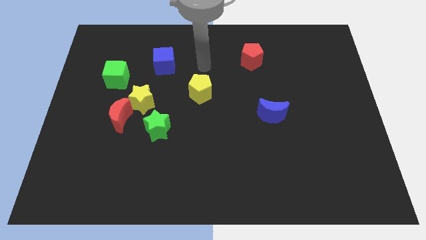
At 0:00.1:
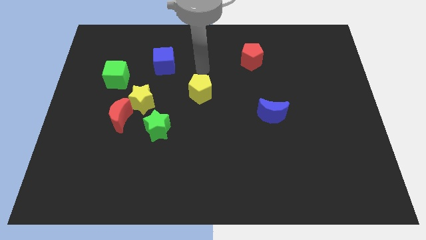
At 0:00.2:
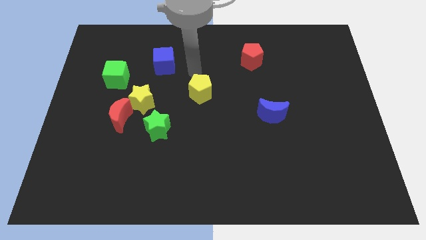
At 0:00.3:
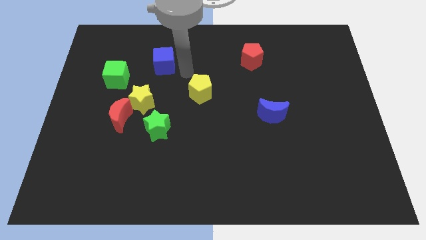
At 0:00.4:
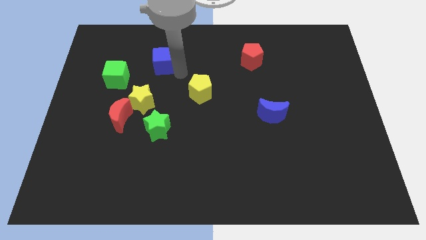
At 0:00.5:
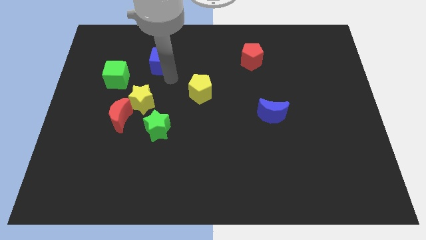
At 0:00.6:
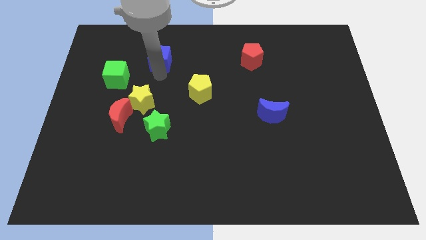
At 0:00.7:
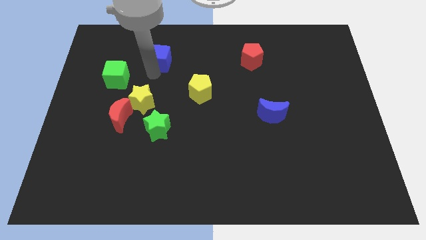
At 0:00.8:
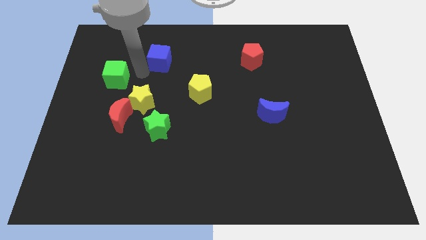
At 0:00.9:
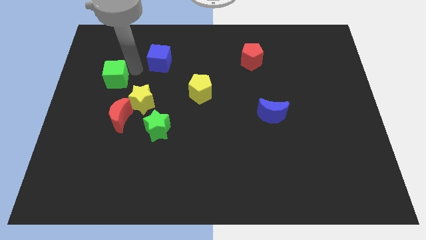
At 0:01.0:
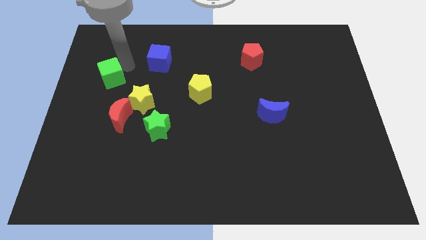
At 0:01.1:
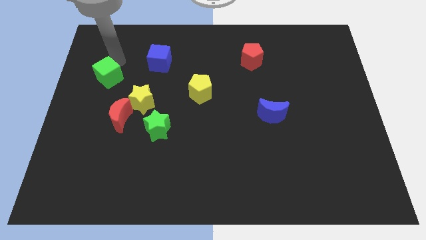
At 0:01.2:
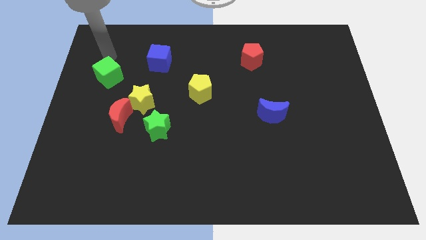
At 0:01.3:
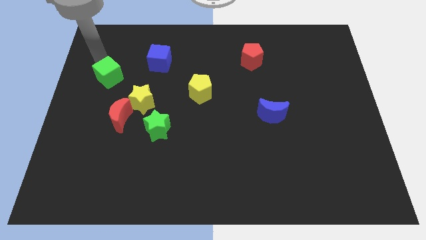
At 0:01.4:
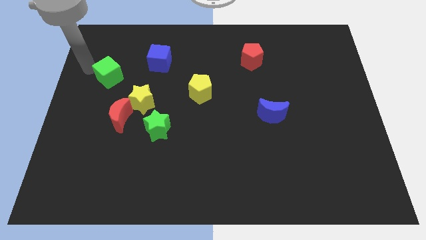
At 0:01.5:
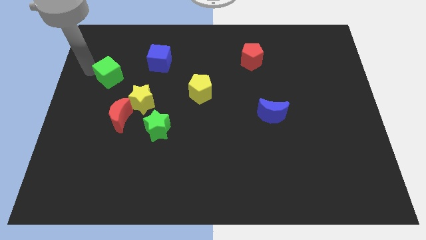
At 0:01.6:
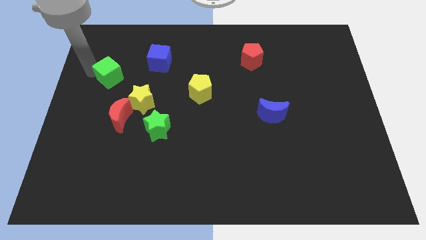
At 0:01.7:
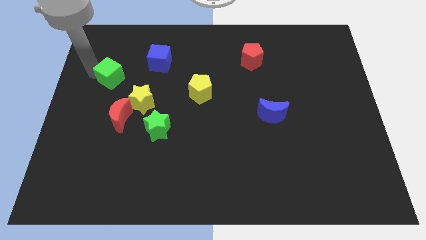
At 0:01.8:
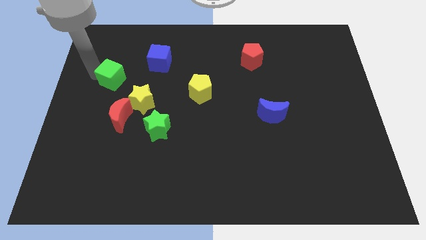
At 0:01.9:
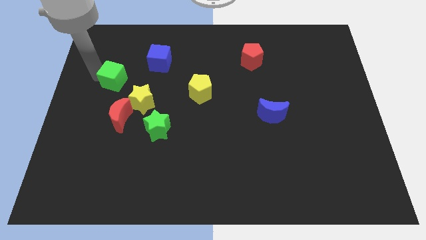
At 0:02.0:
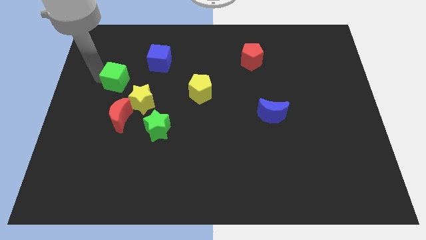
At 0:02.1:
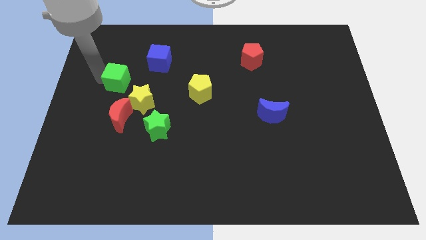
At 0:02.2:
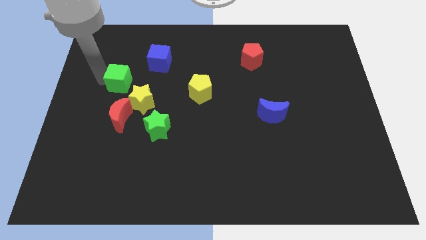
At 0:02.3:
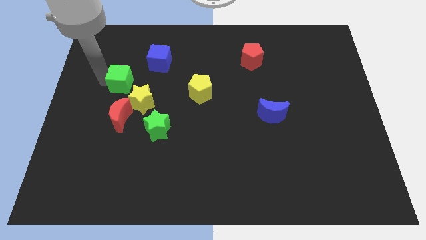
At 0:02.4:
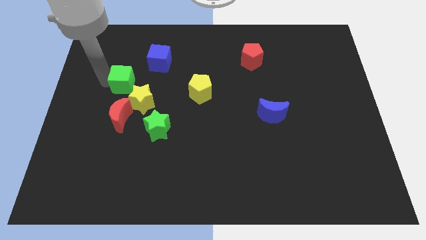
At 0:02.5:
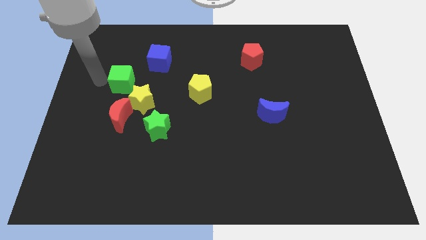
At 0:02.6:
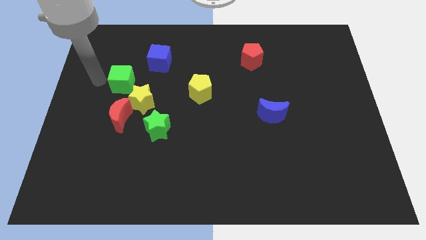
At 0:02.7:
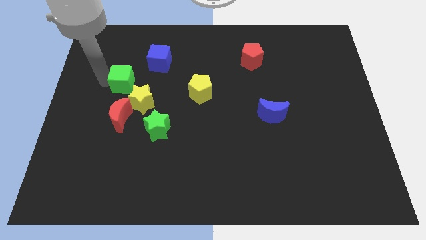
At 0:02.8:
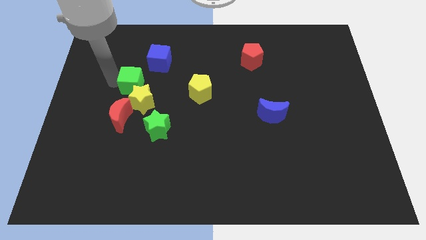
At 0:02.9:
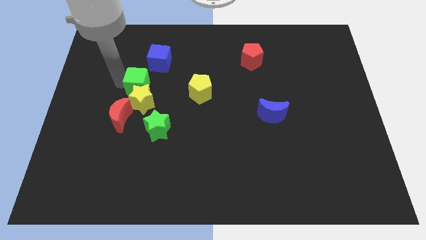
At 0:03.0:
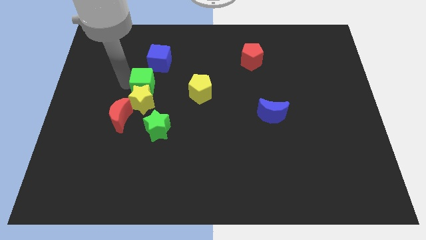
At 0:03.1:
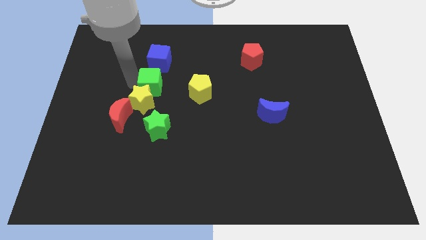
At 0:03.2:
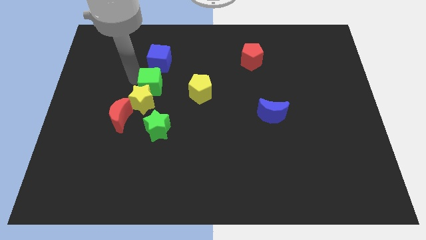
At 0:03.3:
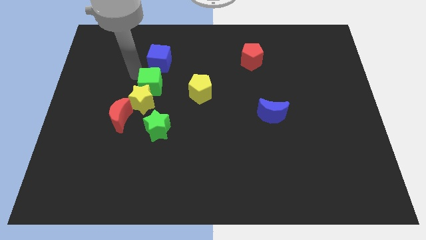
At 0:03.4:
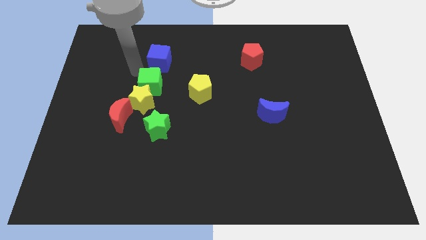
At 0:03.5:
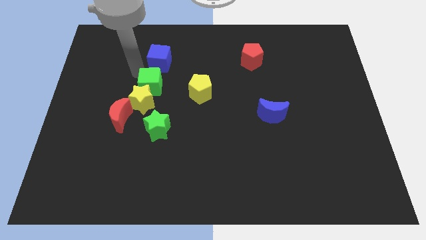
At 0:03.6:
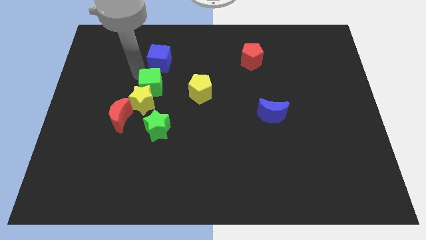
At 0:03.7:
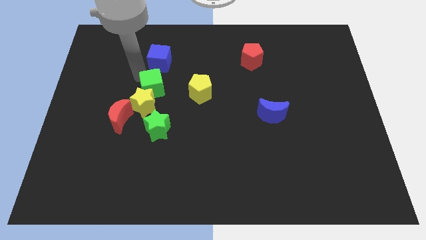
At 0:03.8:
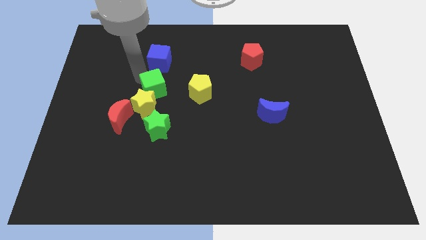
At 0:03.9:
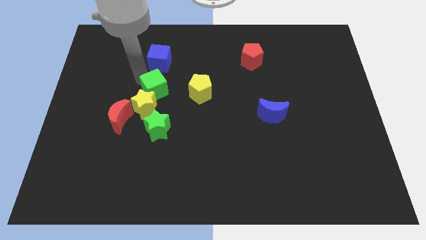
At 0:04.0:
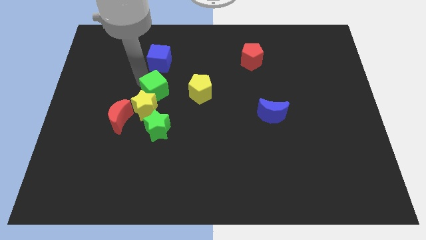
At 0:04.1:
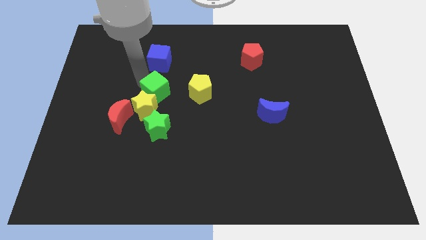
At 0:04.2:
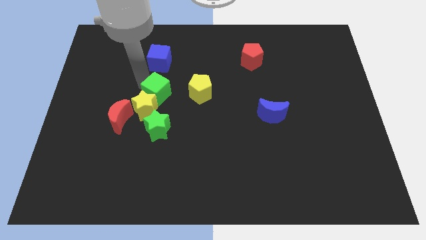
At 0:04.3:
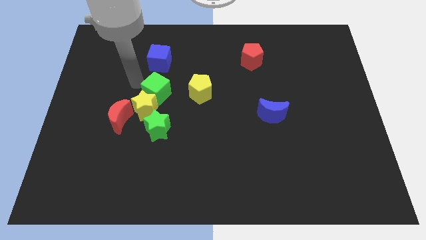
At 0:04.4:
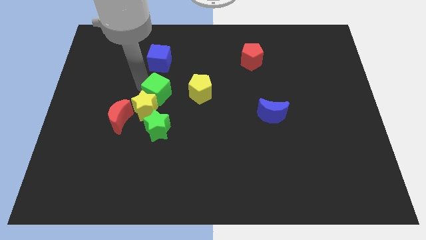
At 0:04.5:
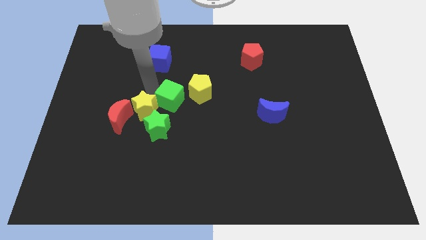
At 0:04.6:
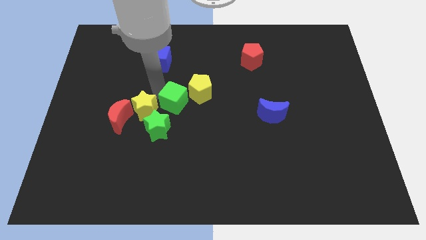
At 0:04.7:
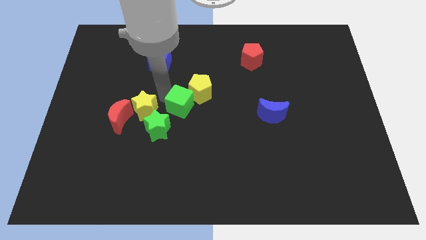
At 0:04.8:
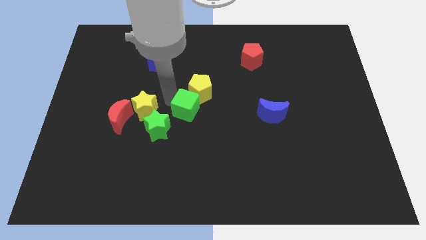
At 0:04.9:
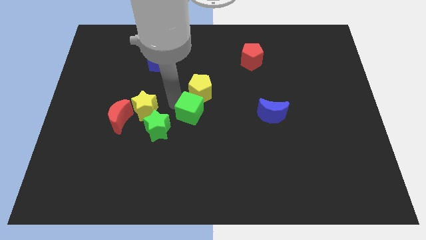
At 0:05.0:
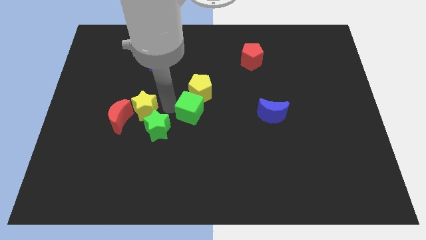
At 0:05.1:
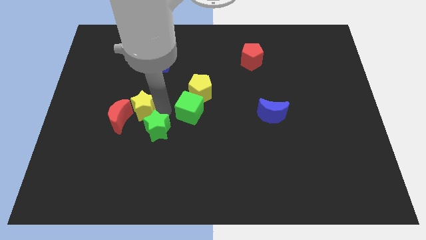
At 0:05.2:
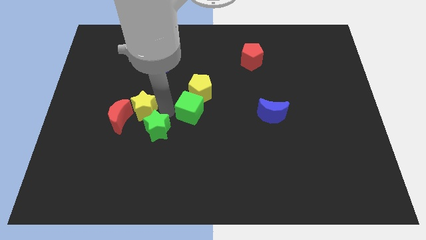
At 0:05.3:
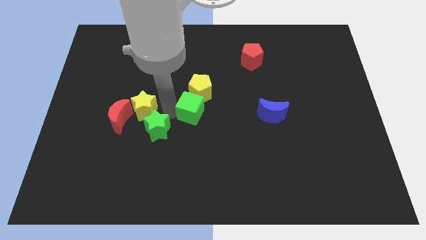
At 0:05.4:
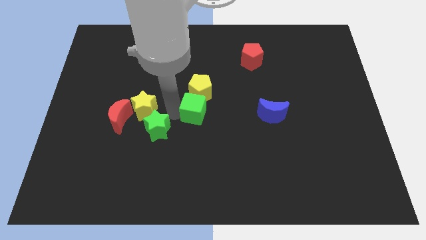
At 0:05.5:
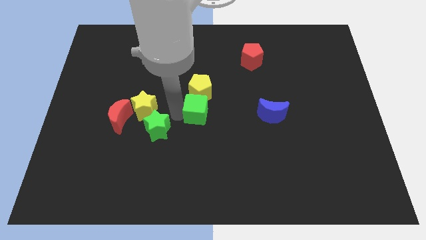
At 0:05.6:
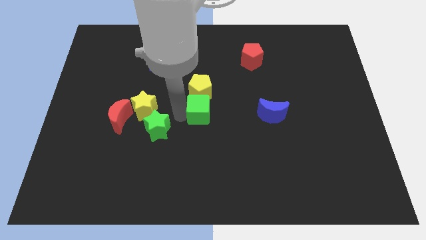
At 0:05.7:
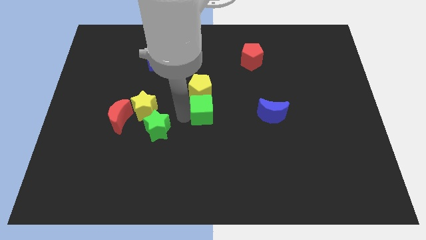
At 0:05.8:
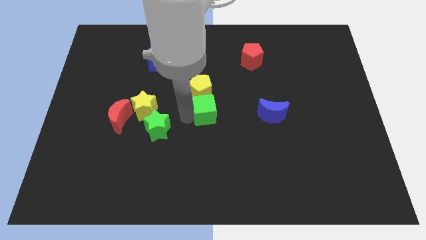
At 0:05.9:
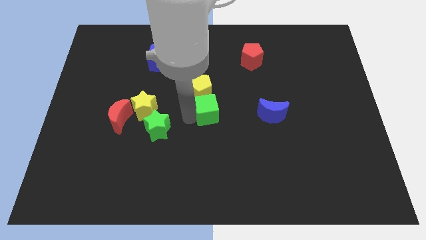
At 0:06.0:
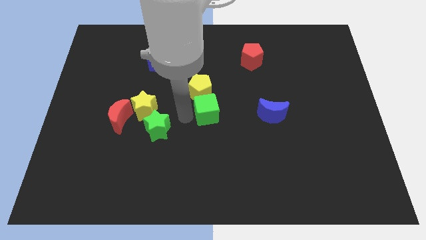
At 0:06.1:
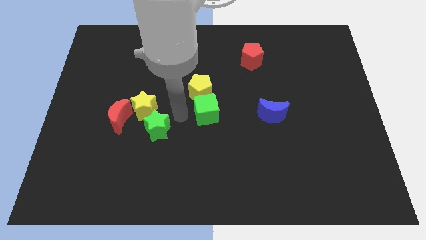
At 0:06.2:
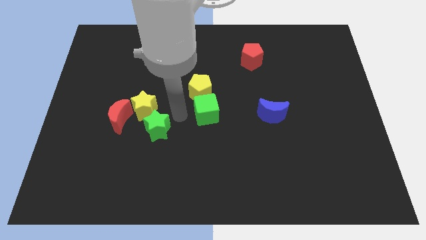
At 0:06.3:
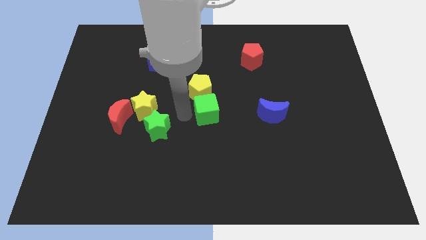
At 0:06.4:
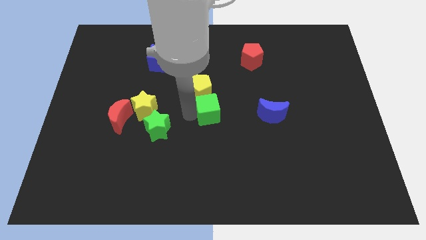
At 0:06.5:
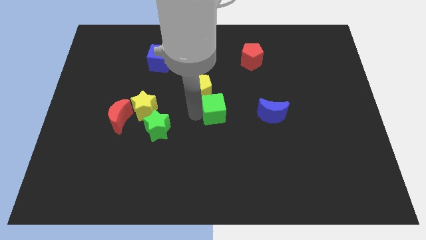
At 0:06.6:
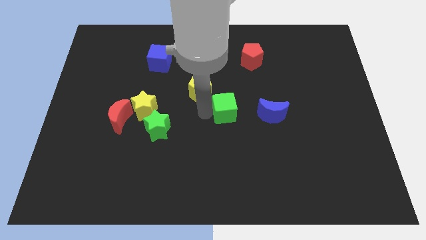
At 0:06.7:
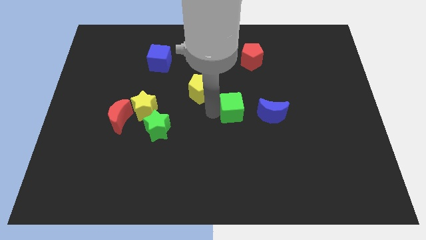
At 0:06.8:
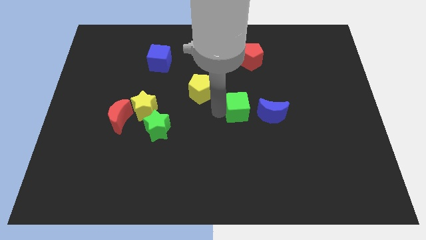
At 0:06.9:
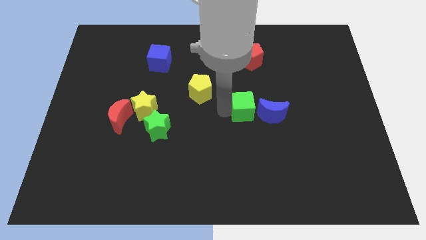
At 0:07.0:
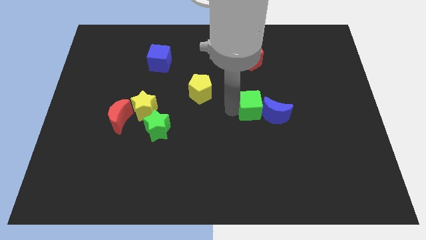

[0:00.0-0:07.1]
slide the green cube to the blue moon
